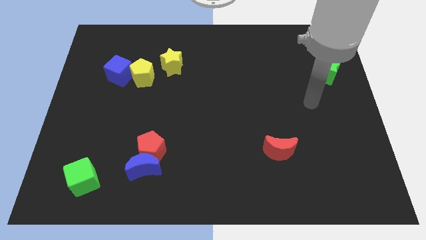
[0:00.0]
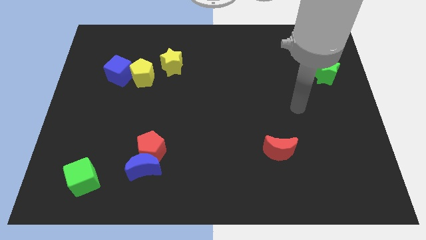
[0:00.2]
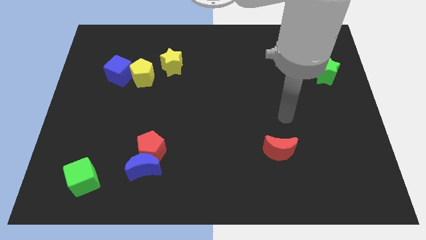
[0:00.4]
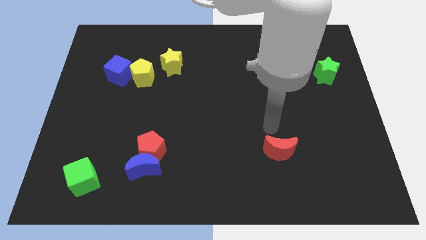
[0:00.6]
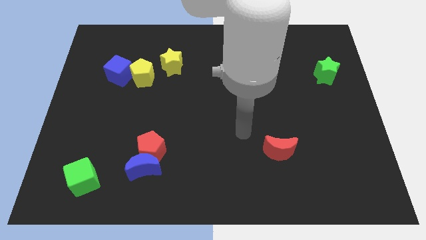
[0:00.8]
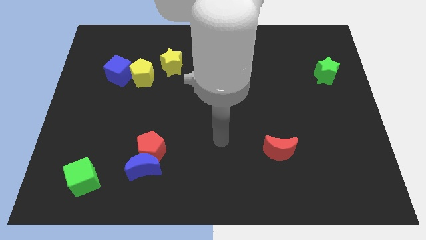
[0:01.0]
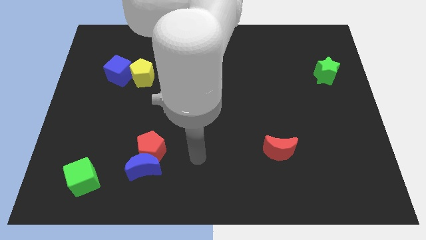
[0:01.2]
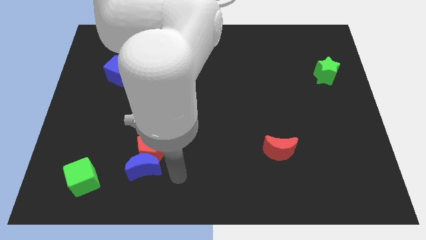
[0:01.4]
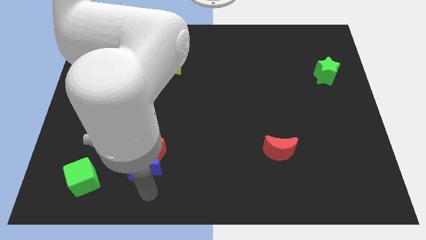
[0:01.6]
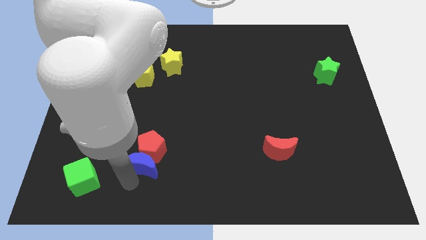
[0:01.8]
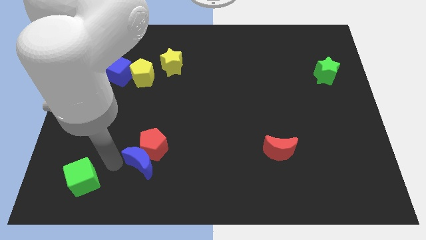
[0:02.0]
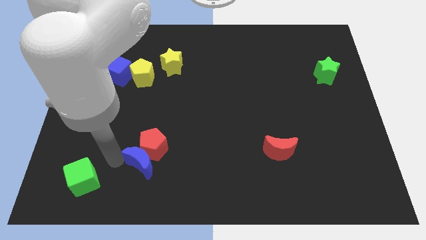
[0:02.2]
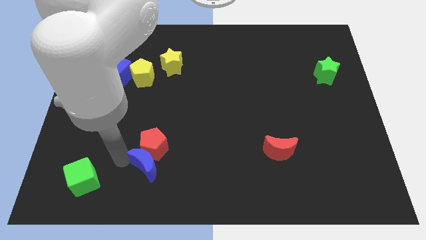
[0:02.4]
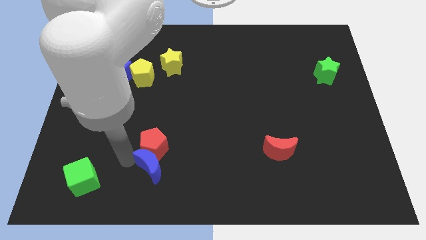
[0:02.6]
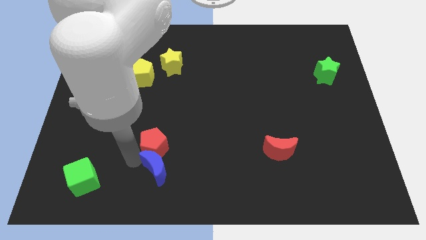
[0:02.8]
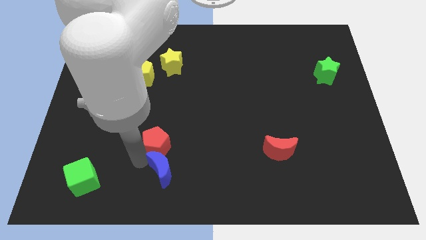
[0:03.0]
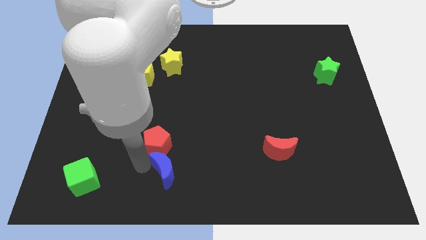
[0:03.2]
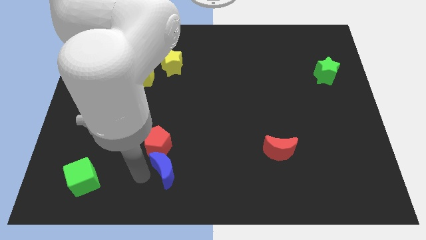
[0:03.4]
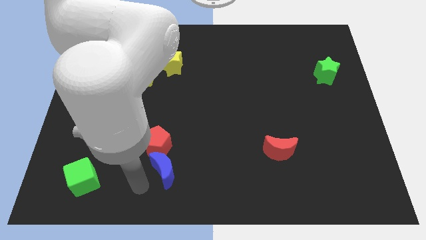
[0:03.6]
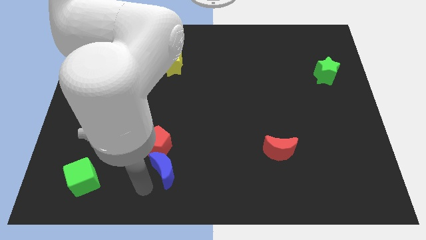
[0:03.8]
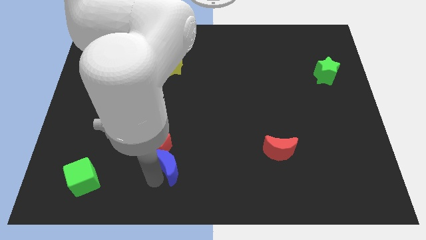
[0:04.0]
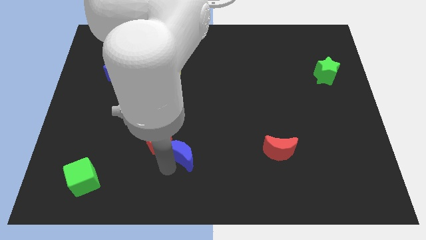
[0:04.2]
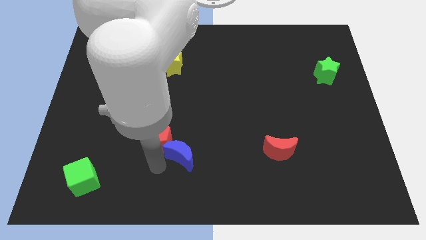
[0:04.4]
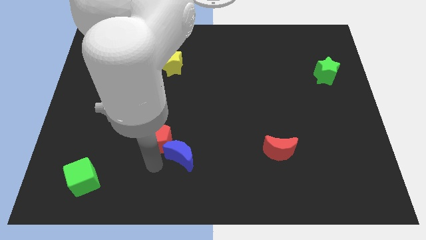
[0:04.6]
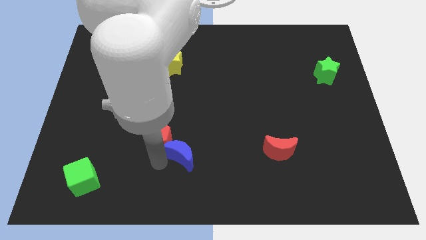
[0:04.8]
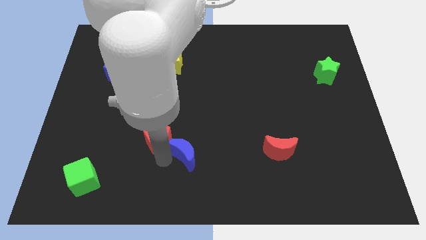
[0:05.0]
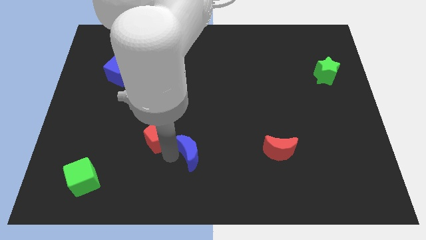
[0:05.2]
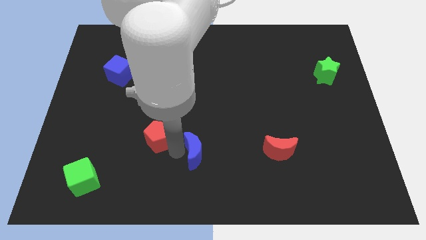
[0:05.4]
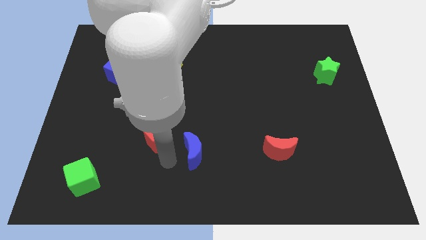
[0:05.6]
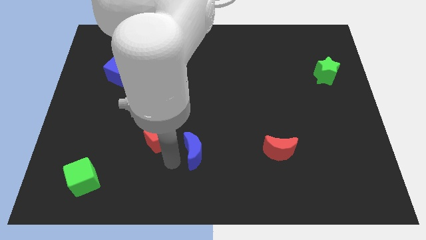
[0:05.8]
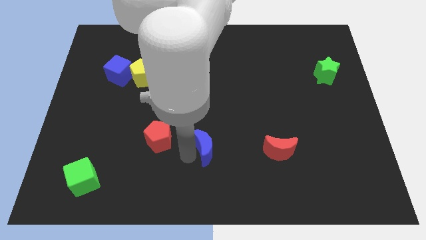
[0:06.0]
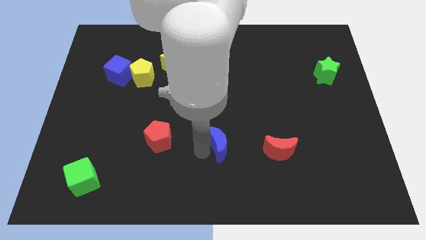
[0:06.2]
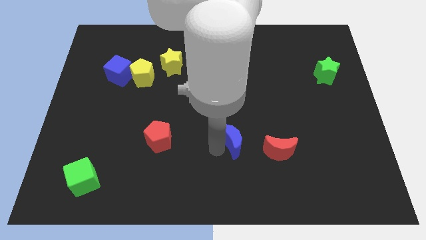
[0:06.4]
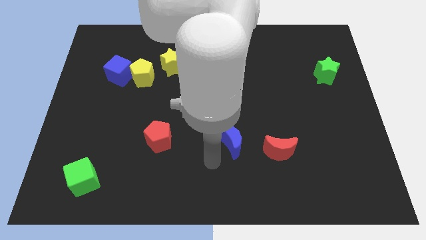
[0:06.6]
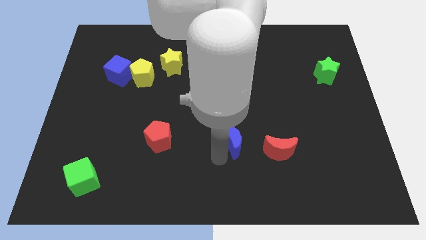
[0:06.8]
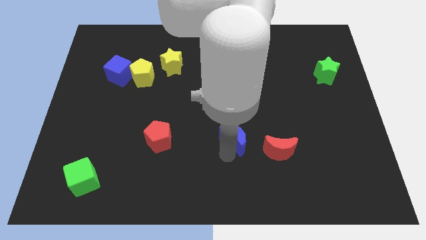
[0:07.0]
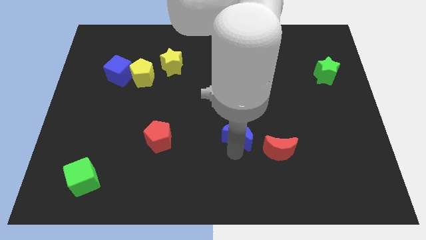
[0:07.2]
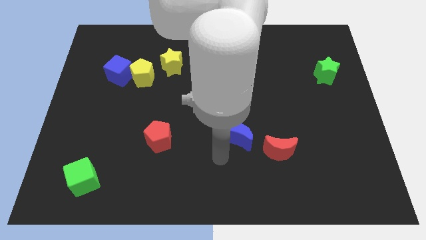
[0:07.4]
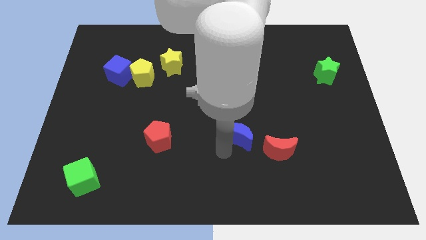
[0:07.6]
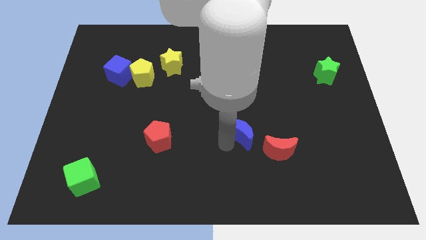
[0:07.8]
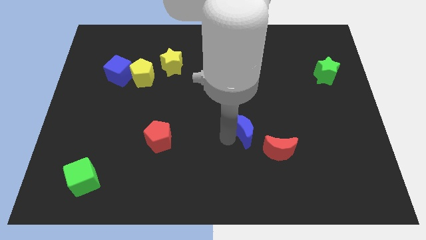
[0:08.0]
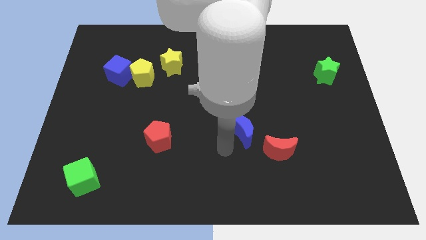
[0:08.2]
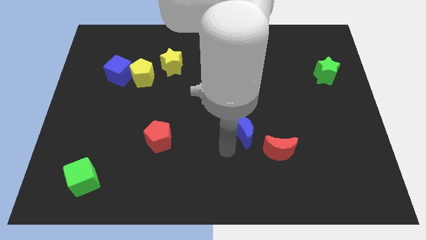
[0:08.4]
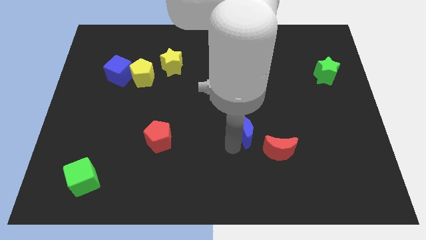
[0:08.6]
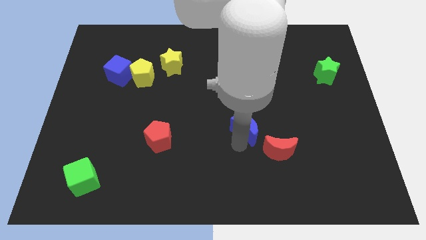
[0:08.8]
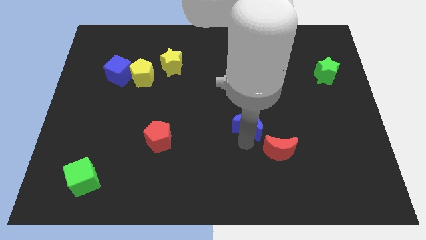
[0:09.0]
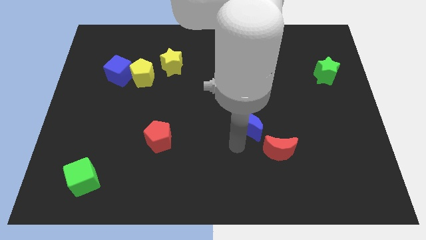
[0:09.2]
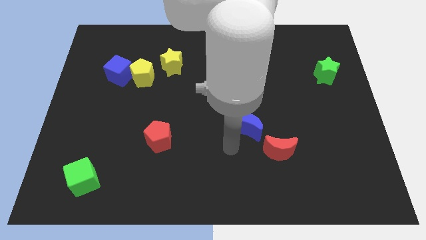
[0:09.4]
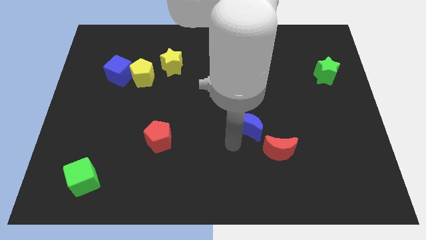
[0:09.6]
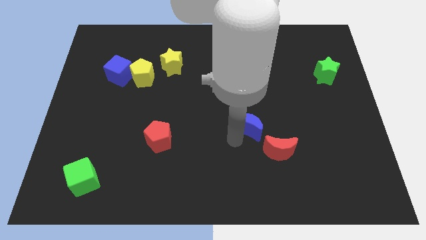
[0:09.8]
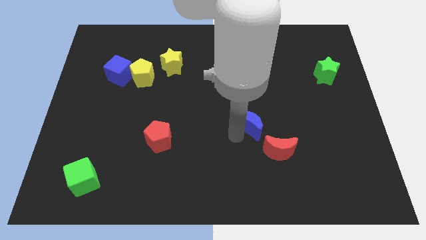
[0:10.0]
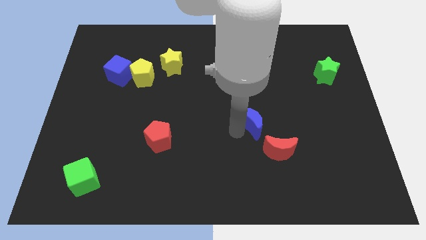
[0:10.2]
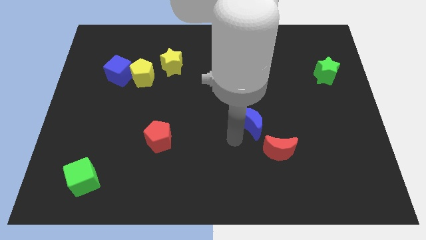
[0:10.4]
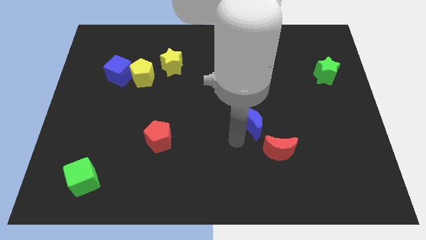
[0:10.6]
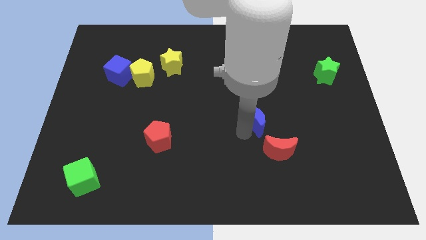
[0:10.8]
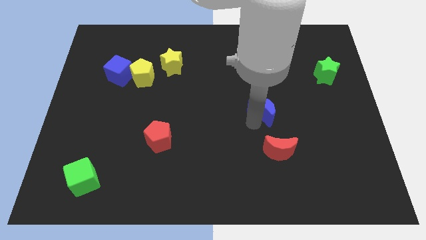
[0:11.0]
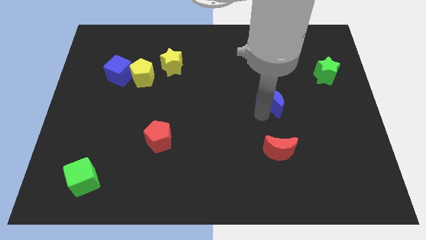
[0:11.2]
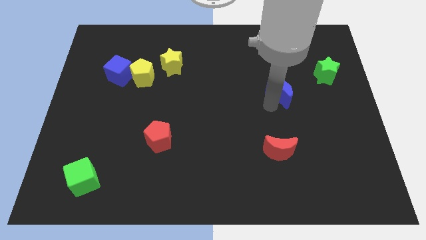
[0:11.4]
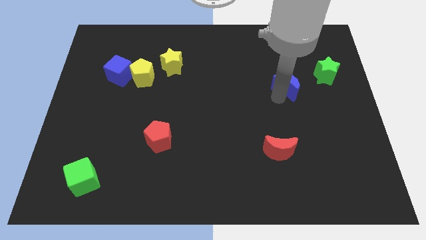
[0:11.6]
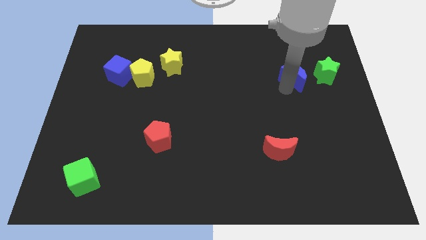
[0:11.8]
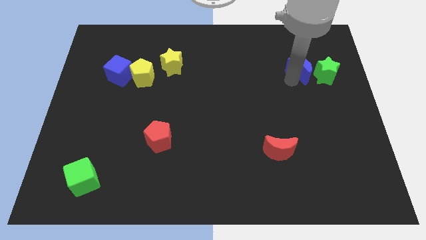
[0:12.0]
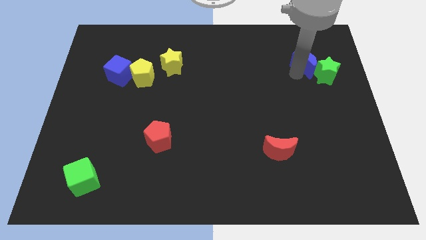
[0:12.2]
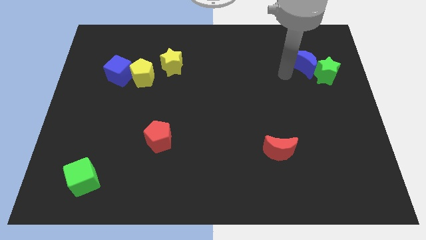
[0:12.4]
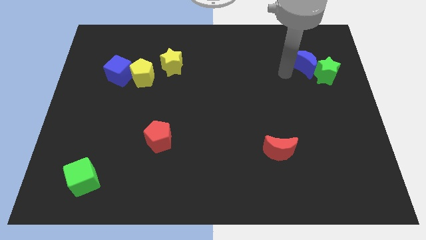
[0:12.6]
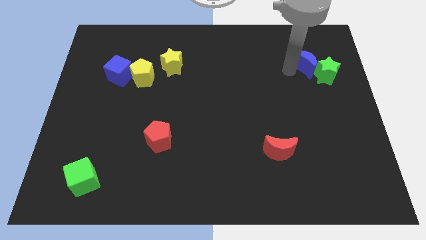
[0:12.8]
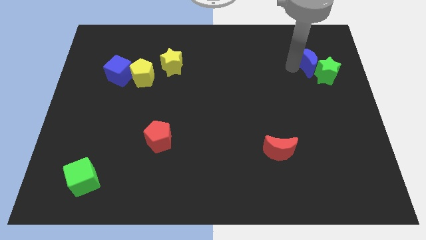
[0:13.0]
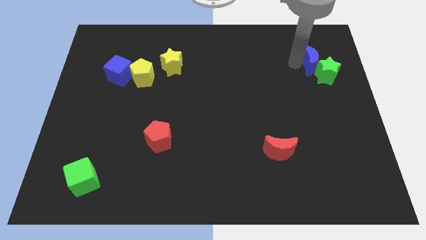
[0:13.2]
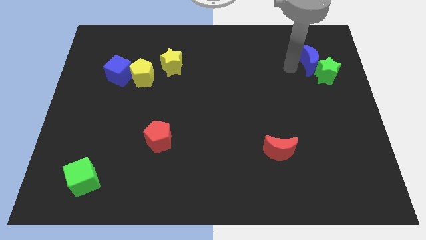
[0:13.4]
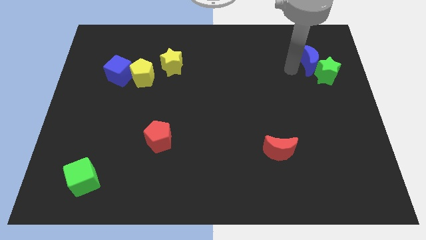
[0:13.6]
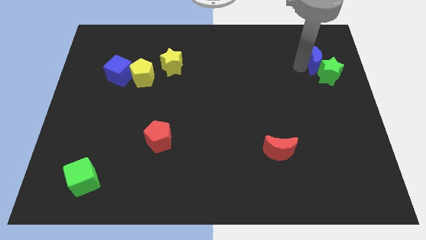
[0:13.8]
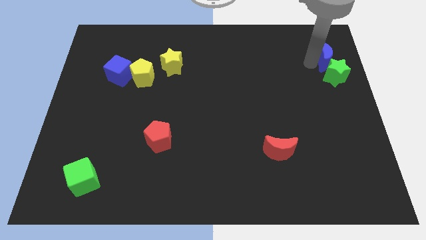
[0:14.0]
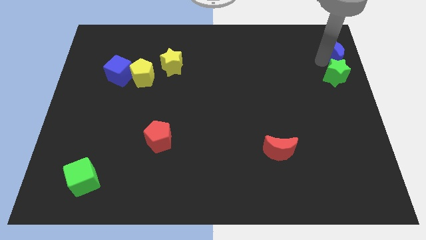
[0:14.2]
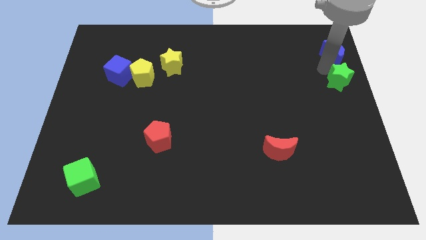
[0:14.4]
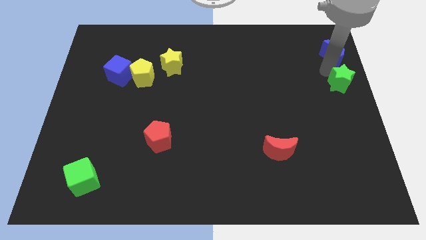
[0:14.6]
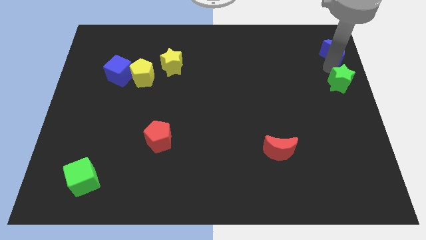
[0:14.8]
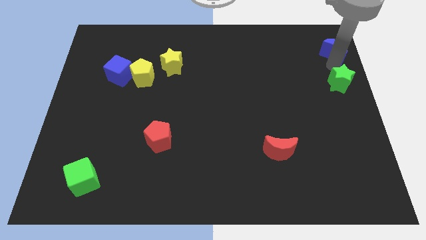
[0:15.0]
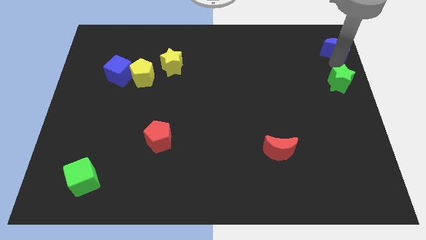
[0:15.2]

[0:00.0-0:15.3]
push the blue moon to the top right corner
